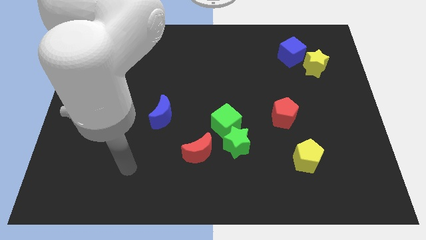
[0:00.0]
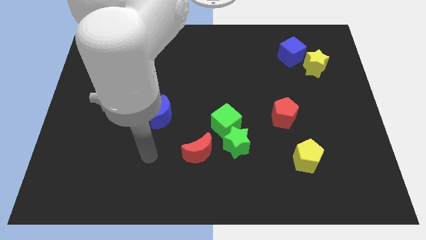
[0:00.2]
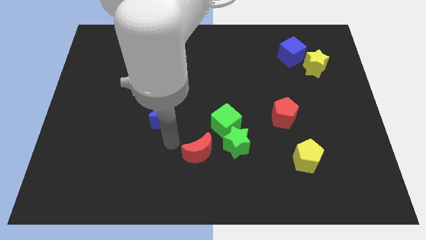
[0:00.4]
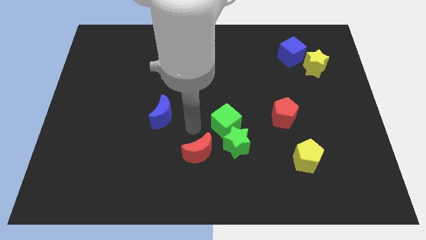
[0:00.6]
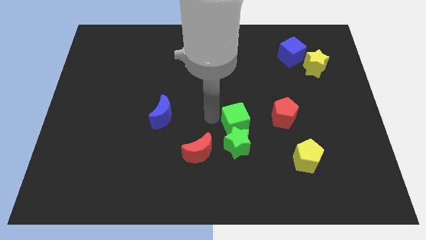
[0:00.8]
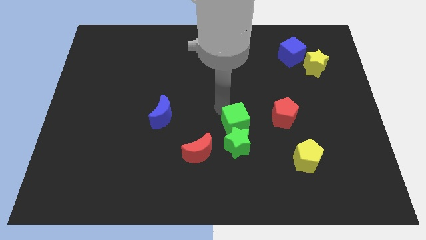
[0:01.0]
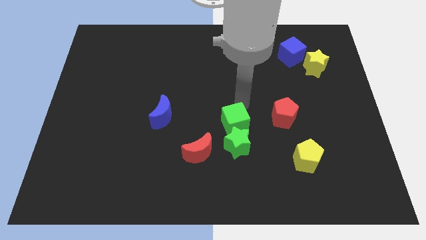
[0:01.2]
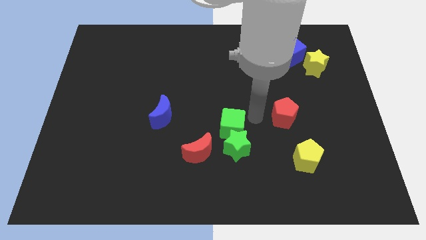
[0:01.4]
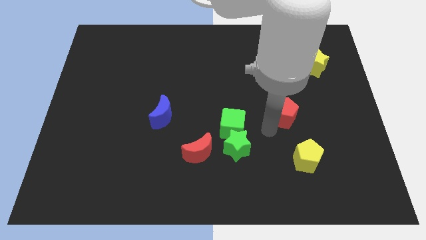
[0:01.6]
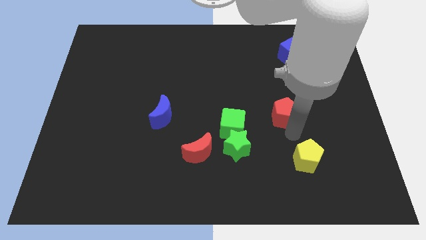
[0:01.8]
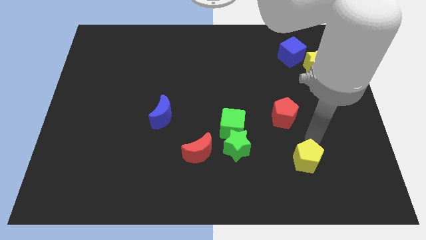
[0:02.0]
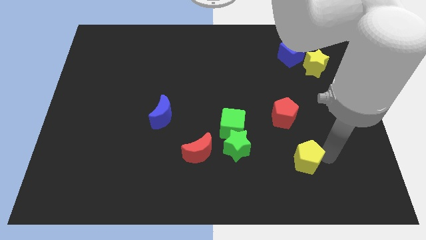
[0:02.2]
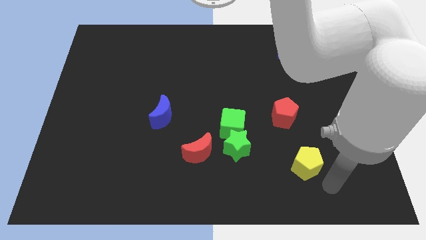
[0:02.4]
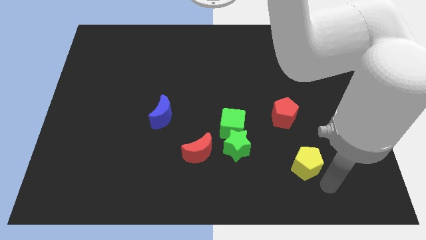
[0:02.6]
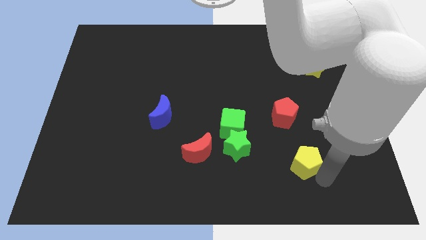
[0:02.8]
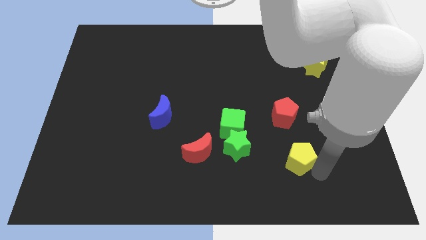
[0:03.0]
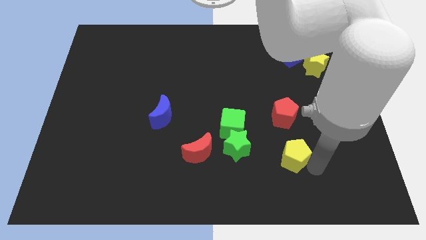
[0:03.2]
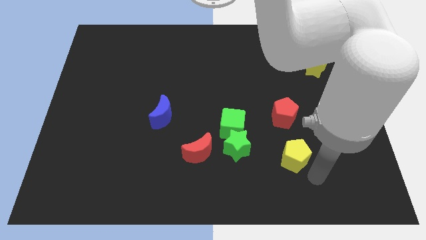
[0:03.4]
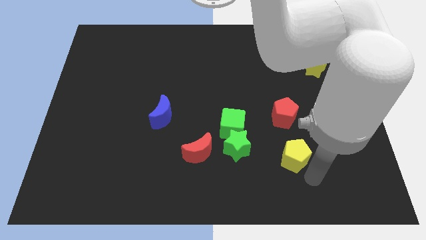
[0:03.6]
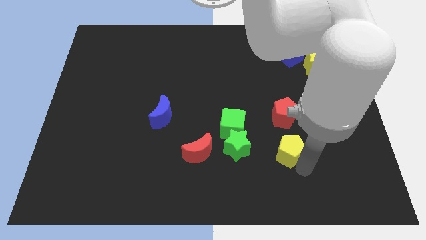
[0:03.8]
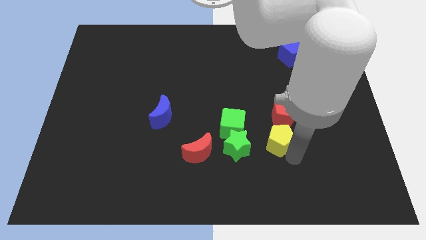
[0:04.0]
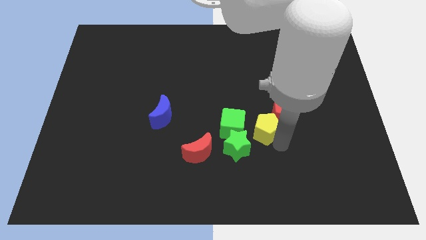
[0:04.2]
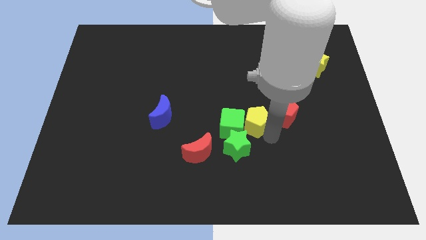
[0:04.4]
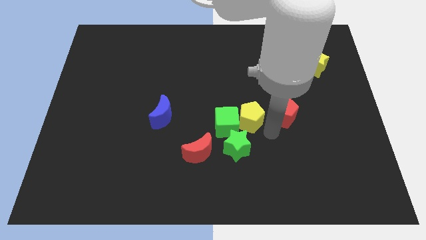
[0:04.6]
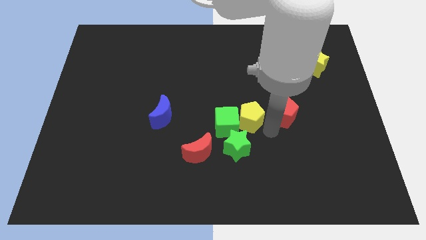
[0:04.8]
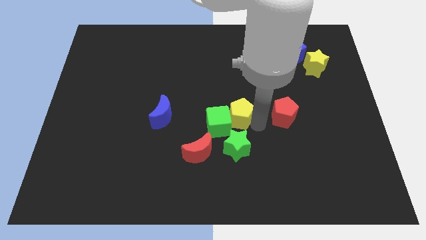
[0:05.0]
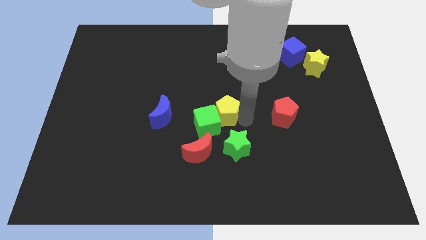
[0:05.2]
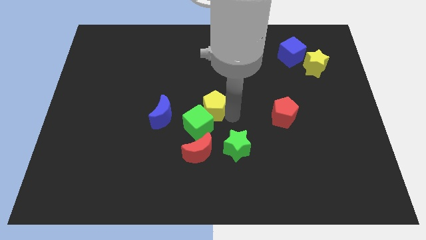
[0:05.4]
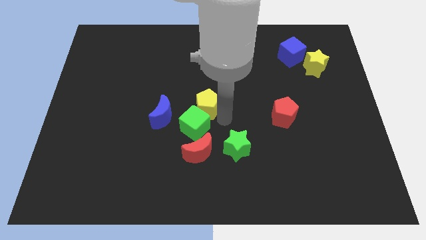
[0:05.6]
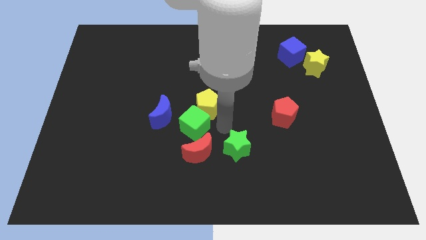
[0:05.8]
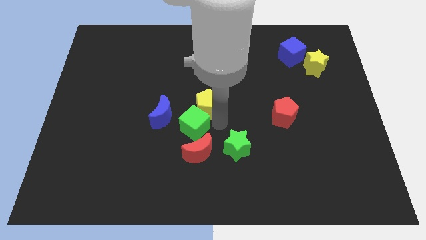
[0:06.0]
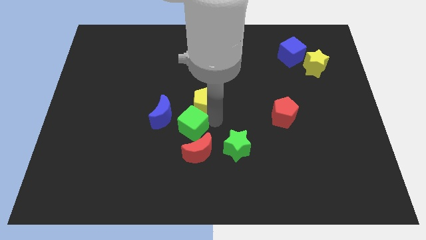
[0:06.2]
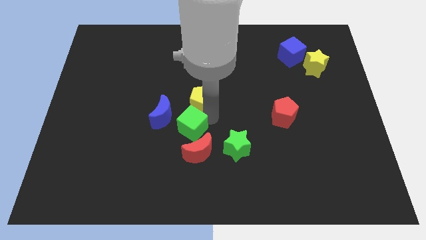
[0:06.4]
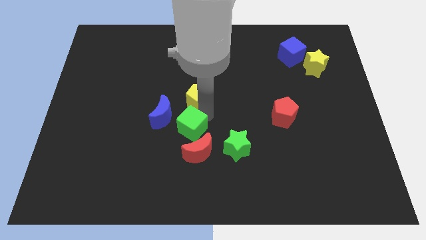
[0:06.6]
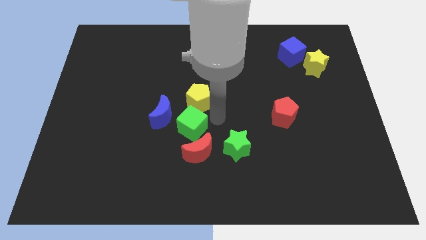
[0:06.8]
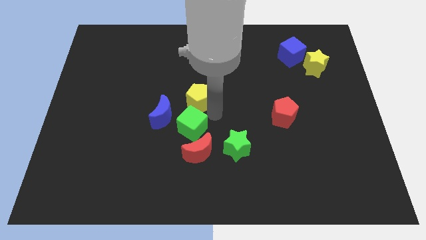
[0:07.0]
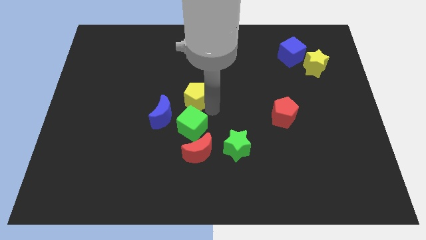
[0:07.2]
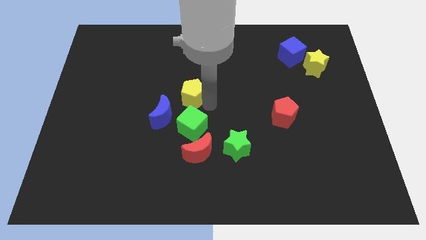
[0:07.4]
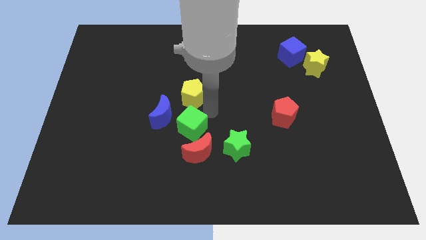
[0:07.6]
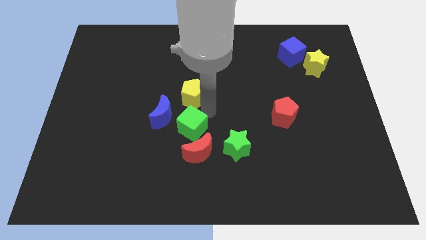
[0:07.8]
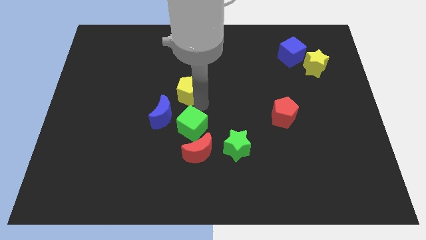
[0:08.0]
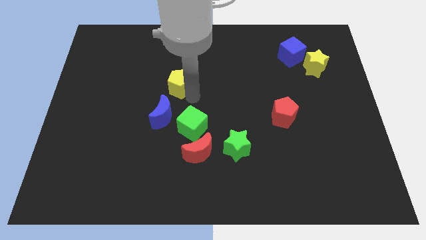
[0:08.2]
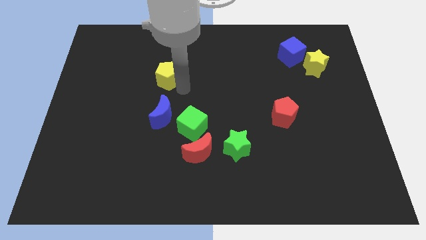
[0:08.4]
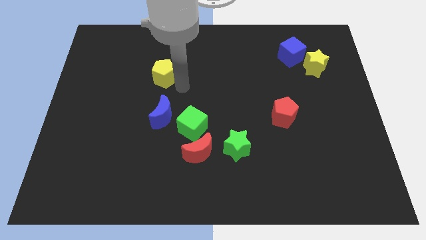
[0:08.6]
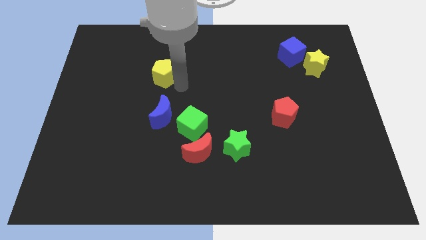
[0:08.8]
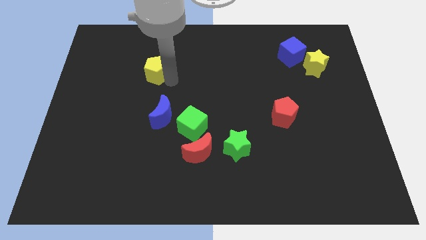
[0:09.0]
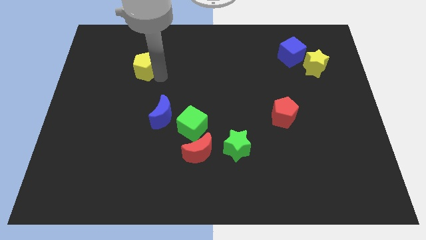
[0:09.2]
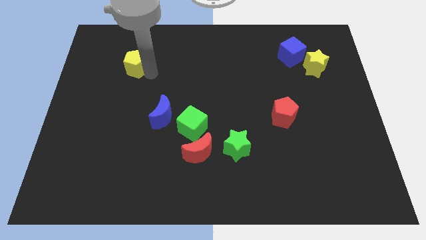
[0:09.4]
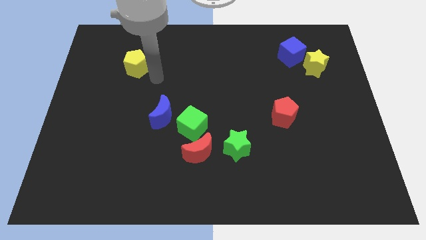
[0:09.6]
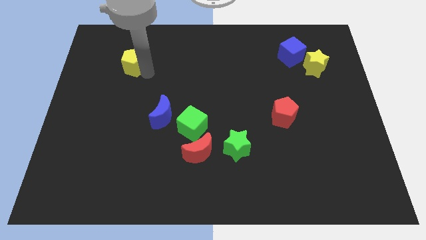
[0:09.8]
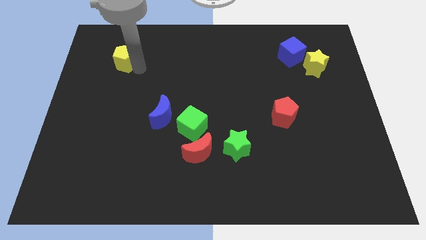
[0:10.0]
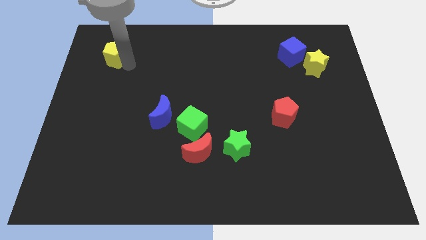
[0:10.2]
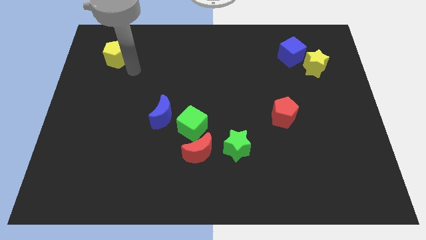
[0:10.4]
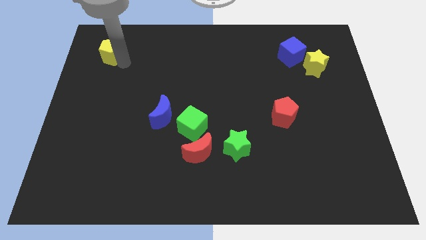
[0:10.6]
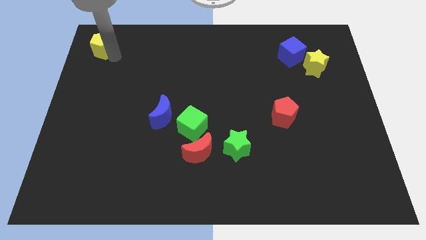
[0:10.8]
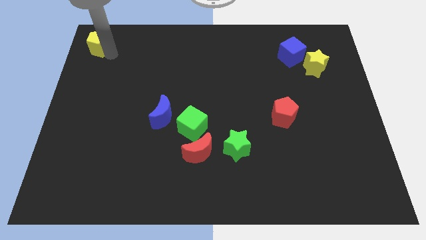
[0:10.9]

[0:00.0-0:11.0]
push the yellow pentagon to the top left

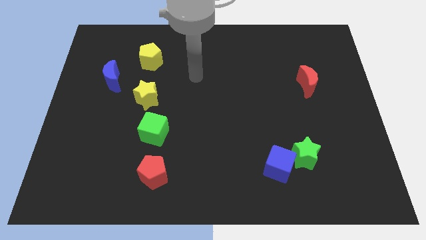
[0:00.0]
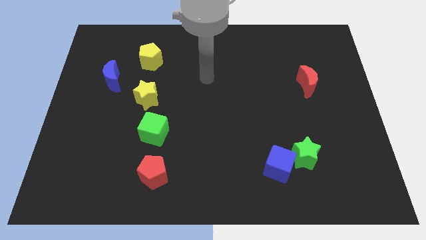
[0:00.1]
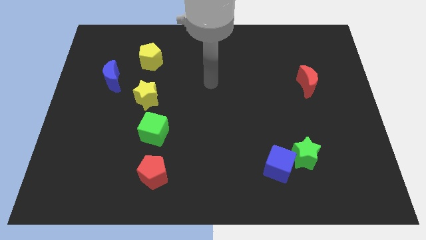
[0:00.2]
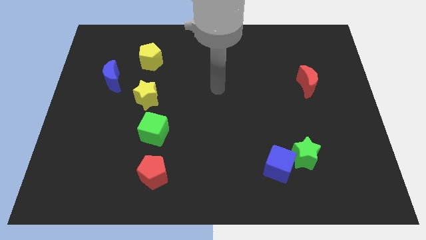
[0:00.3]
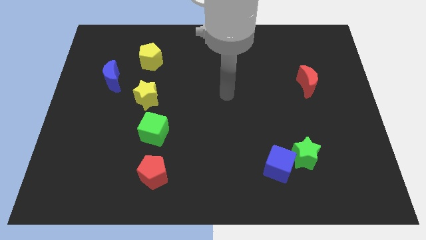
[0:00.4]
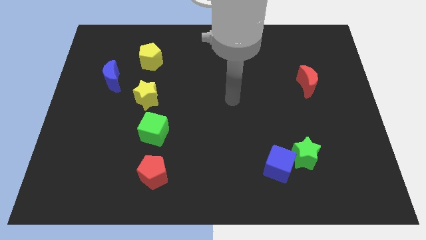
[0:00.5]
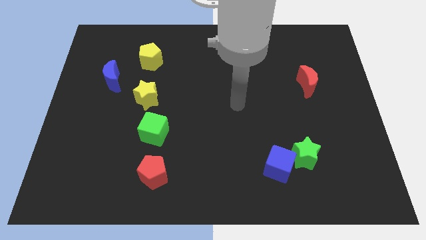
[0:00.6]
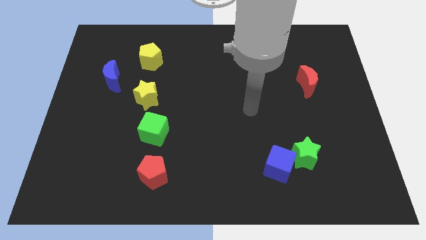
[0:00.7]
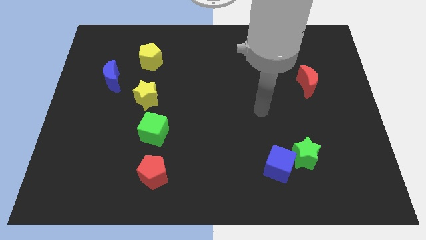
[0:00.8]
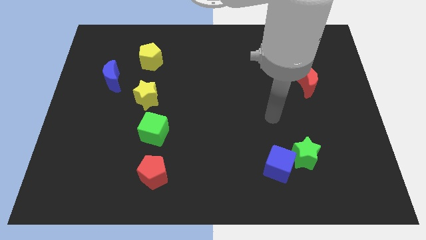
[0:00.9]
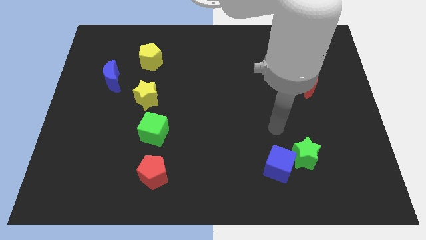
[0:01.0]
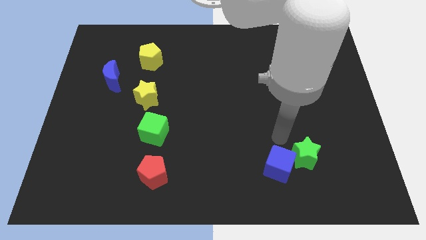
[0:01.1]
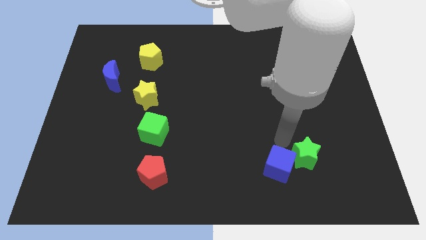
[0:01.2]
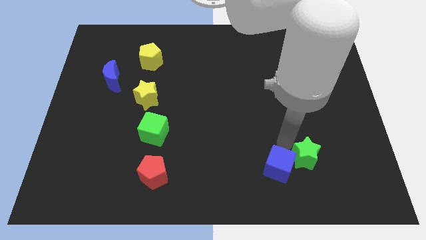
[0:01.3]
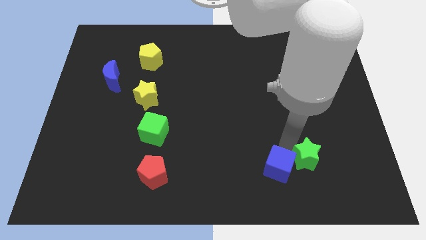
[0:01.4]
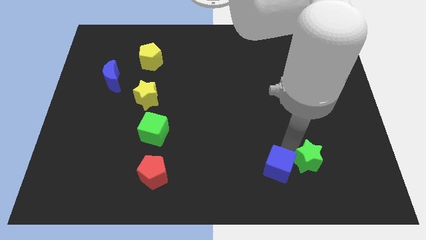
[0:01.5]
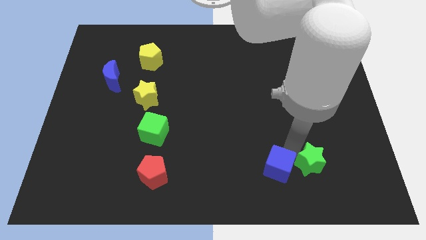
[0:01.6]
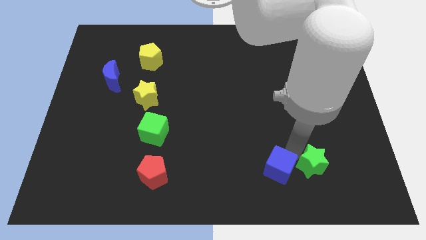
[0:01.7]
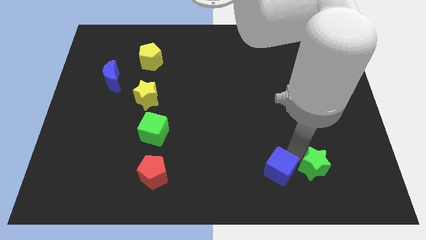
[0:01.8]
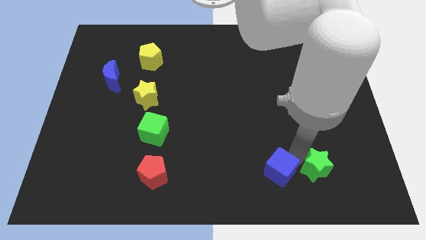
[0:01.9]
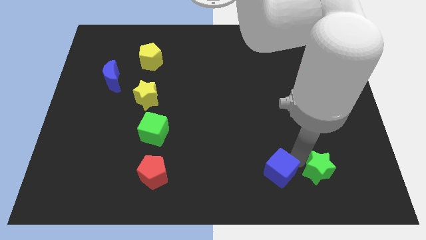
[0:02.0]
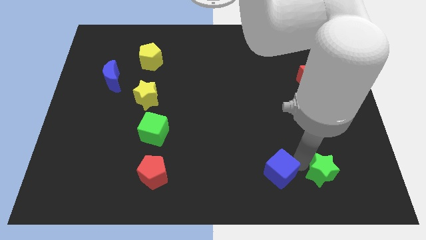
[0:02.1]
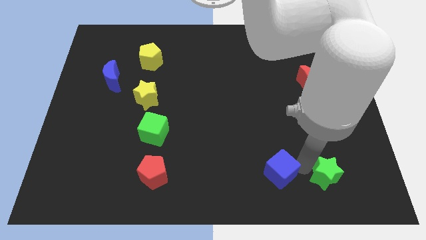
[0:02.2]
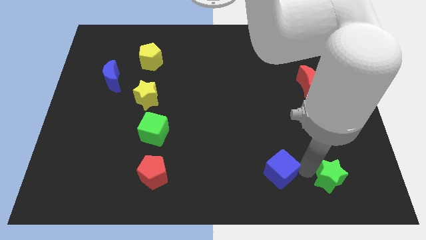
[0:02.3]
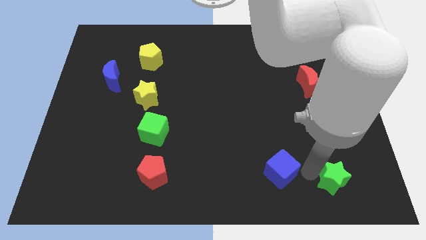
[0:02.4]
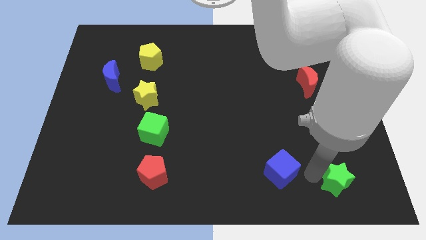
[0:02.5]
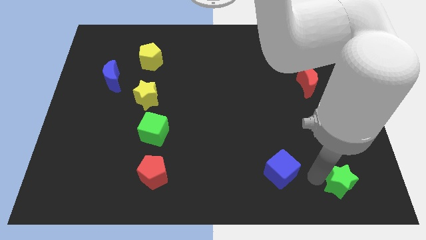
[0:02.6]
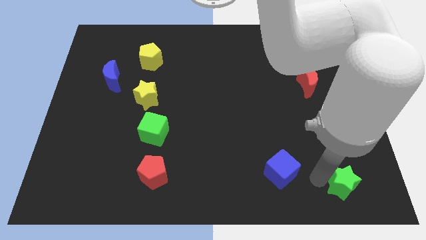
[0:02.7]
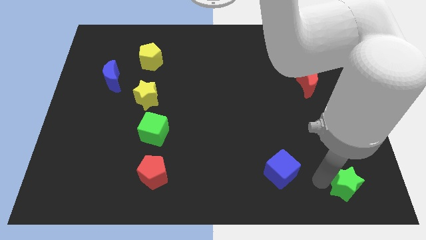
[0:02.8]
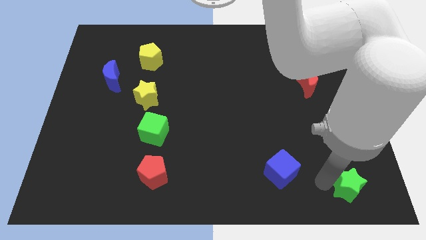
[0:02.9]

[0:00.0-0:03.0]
move the green star to the bottom right of the board
